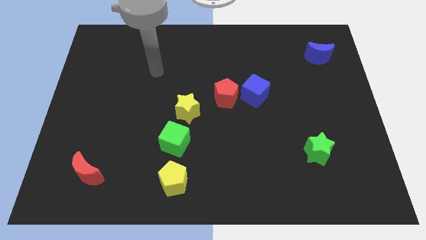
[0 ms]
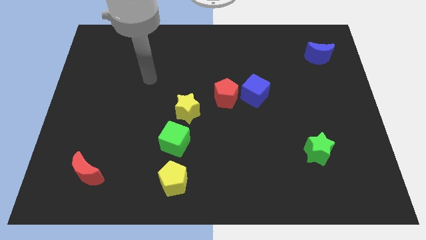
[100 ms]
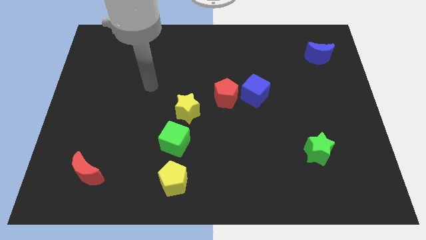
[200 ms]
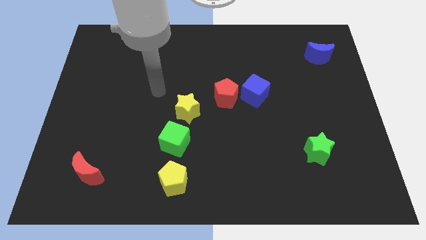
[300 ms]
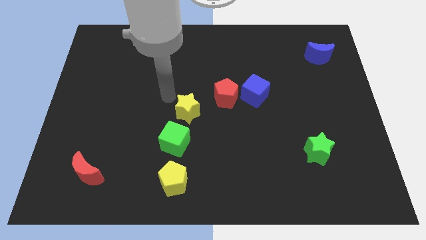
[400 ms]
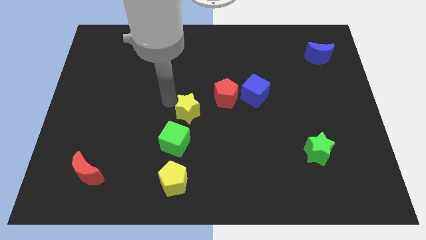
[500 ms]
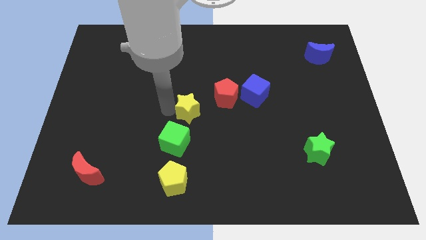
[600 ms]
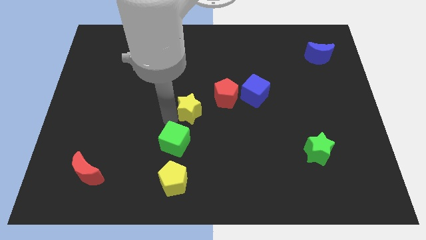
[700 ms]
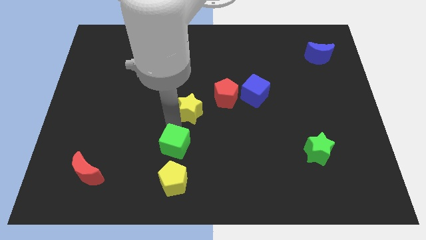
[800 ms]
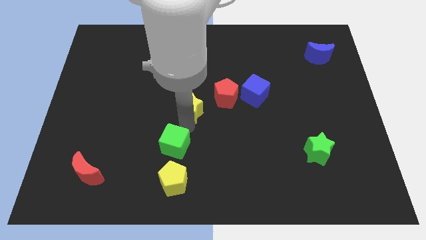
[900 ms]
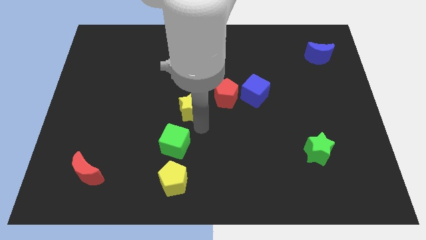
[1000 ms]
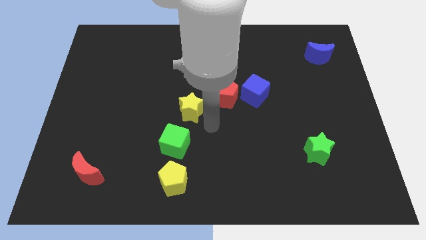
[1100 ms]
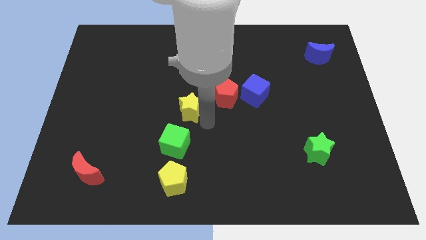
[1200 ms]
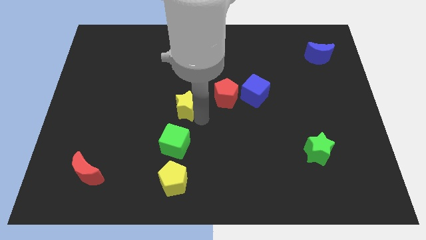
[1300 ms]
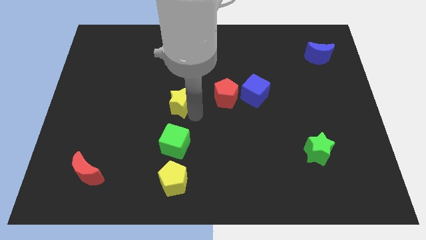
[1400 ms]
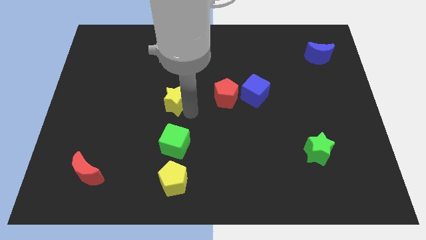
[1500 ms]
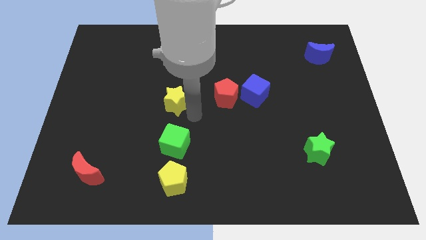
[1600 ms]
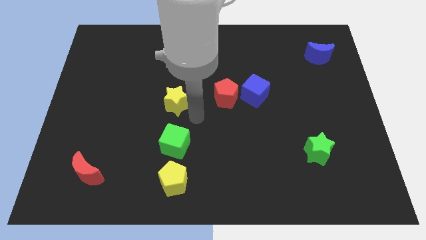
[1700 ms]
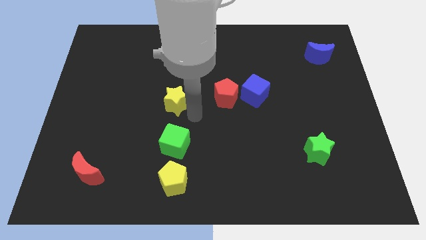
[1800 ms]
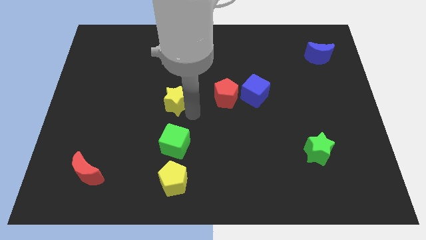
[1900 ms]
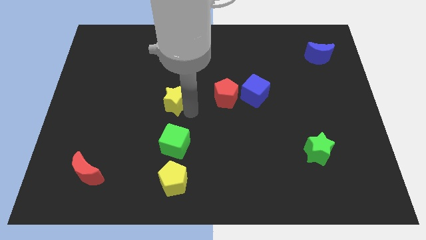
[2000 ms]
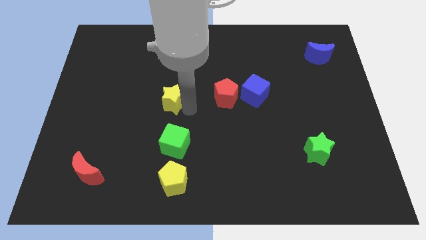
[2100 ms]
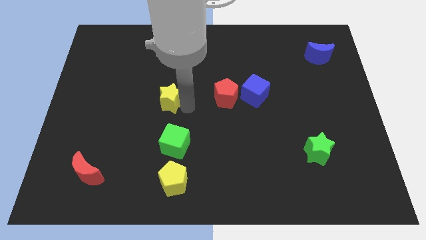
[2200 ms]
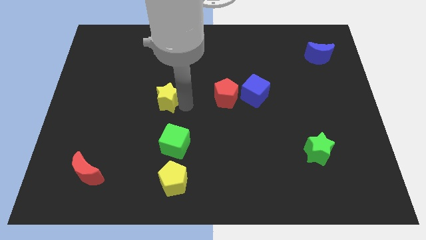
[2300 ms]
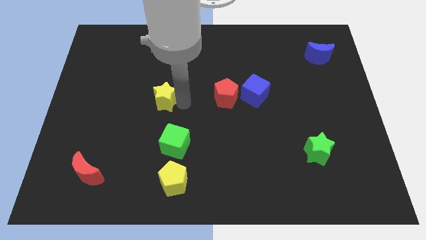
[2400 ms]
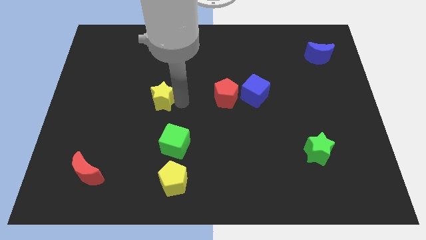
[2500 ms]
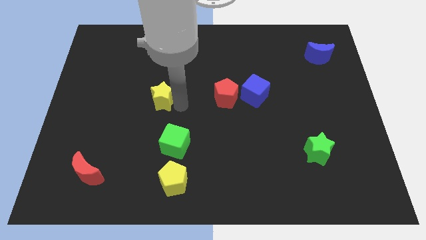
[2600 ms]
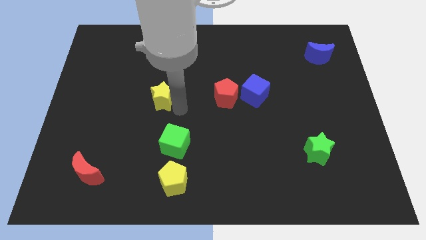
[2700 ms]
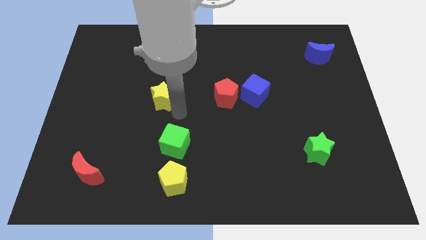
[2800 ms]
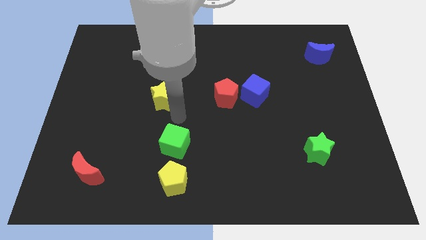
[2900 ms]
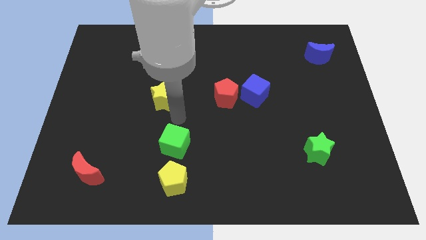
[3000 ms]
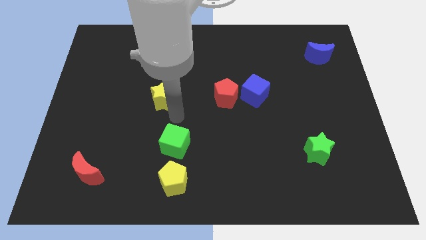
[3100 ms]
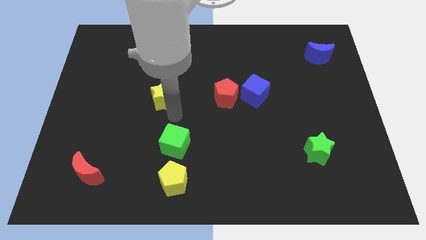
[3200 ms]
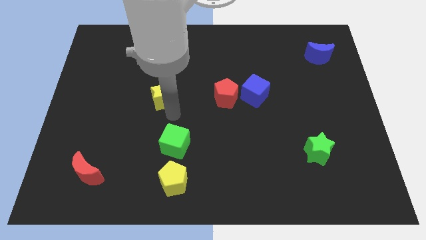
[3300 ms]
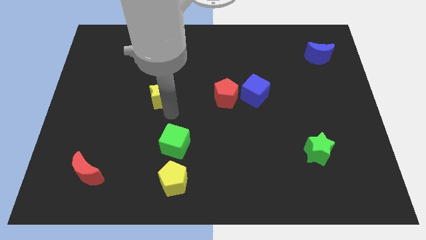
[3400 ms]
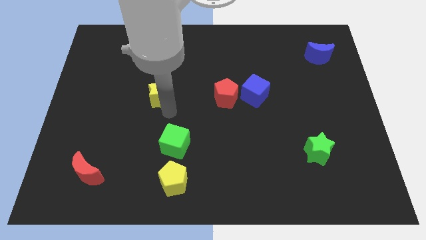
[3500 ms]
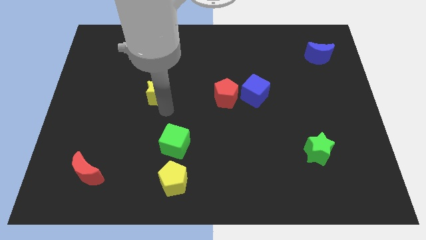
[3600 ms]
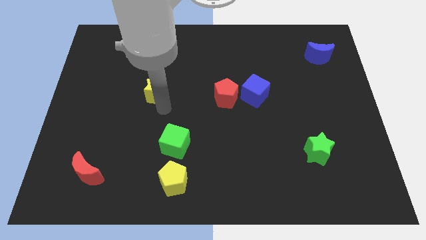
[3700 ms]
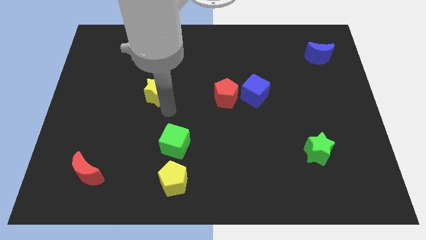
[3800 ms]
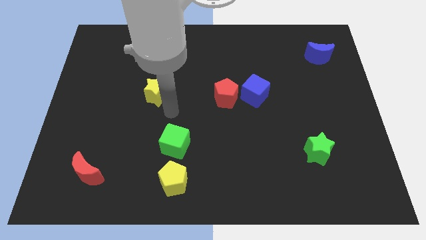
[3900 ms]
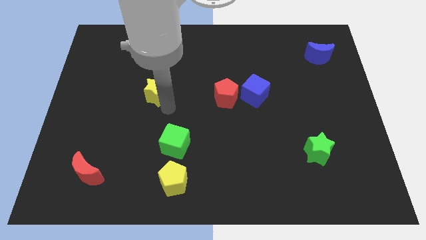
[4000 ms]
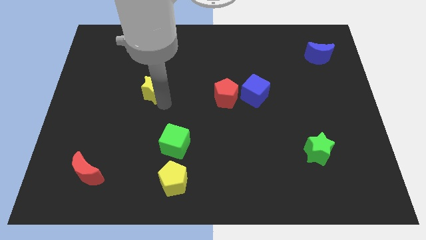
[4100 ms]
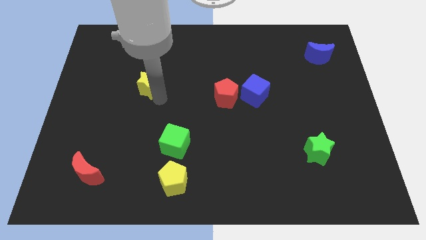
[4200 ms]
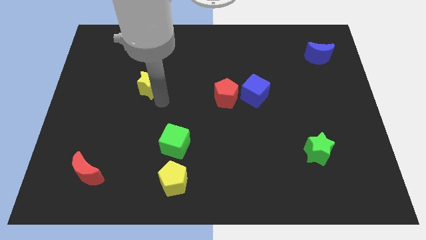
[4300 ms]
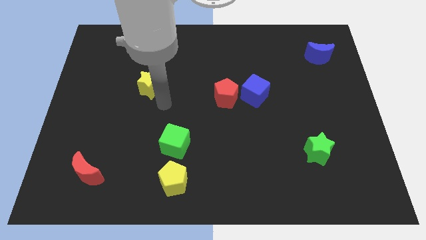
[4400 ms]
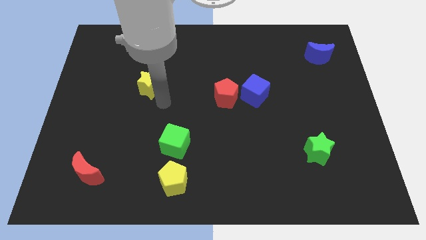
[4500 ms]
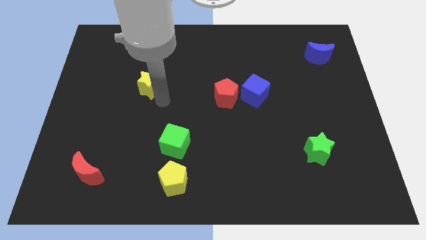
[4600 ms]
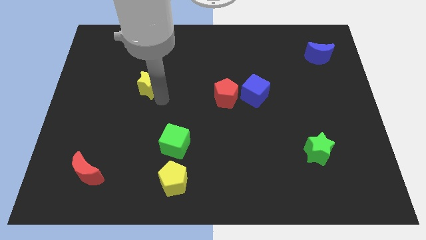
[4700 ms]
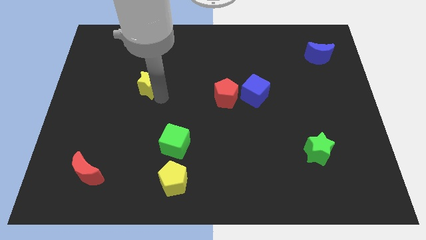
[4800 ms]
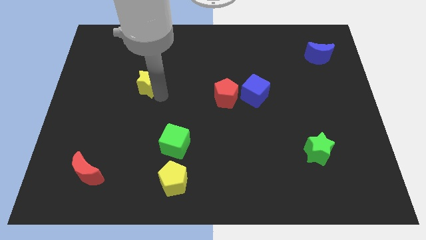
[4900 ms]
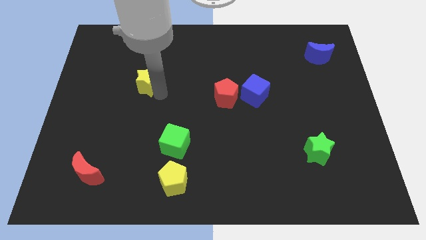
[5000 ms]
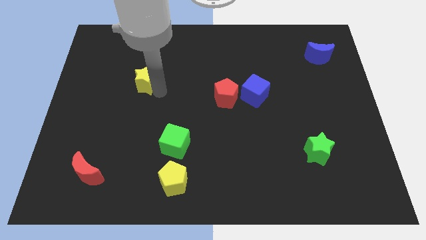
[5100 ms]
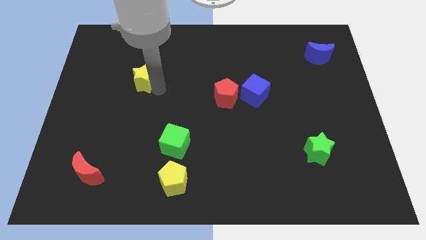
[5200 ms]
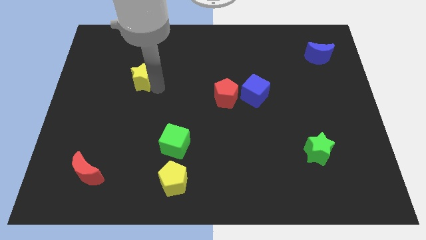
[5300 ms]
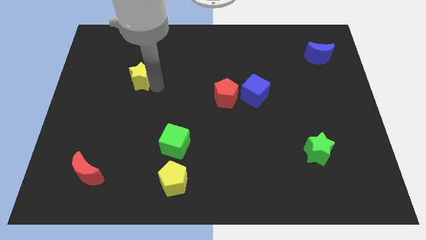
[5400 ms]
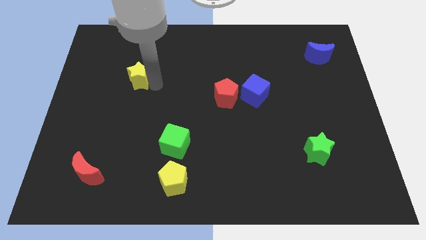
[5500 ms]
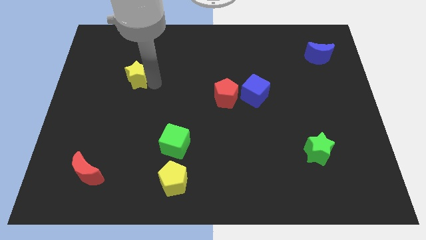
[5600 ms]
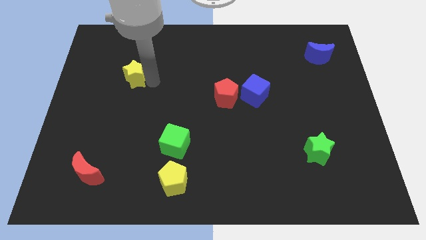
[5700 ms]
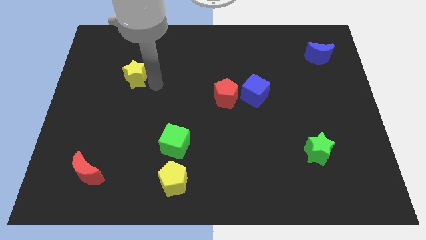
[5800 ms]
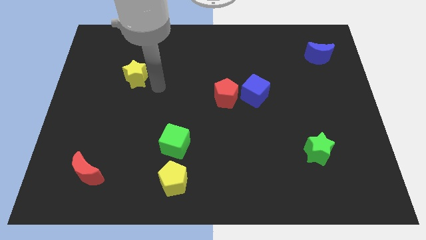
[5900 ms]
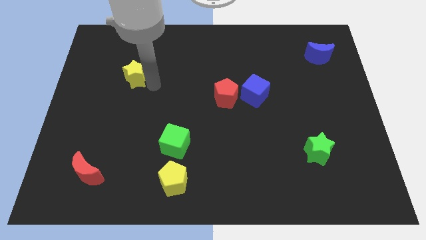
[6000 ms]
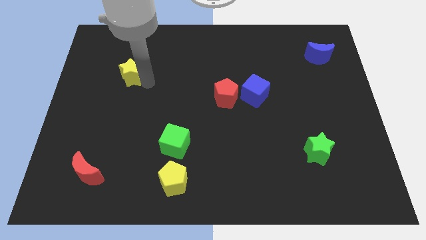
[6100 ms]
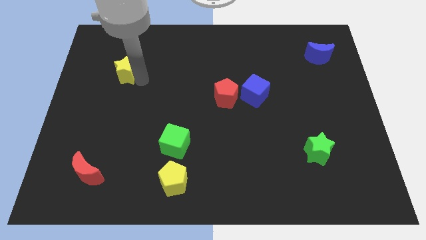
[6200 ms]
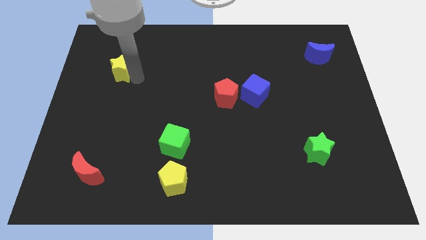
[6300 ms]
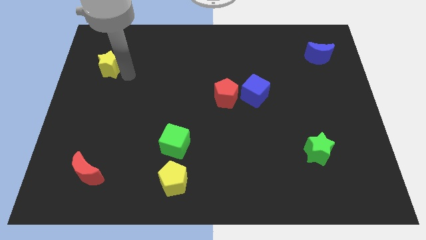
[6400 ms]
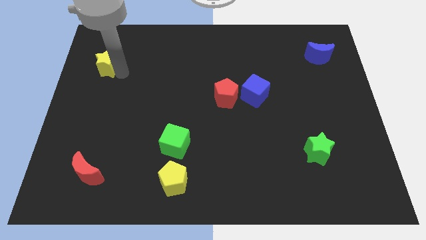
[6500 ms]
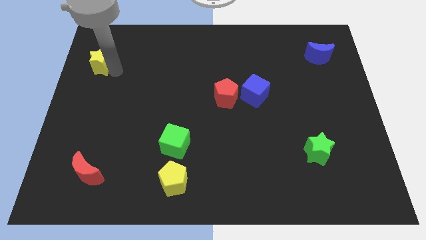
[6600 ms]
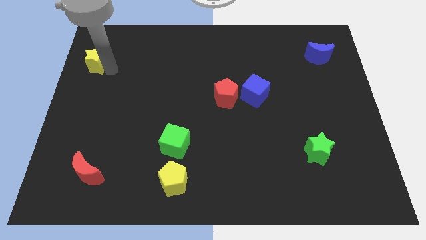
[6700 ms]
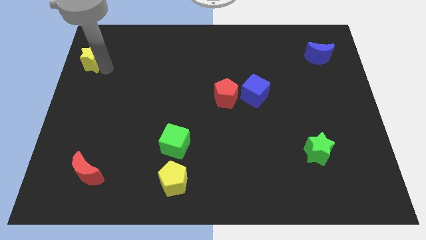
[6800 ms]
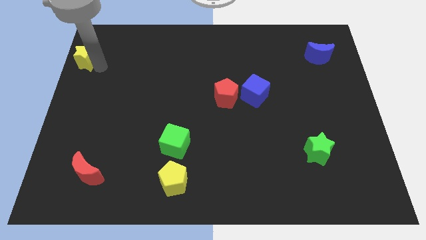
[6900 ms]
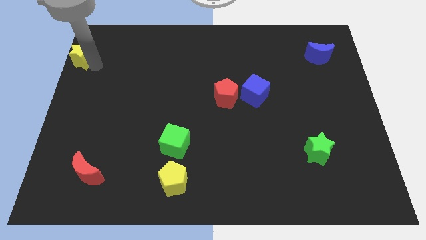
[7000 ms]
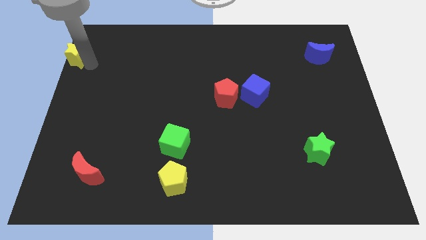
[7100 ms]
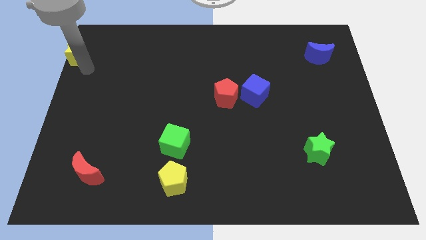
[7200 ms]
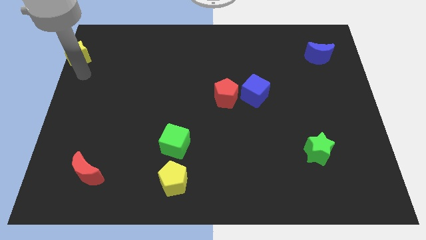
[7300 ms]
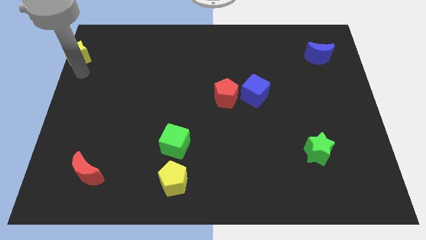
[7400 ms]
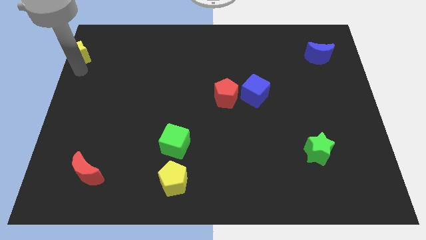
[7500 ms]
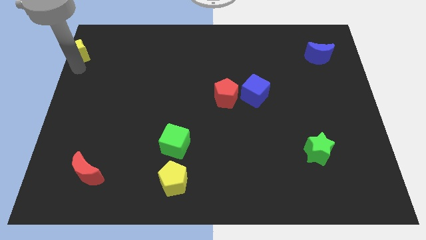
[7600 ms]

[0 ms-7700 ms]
put the yellow star to the upper left corner
